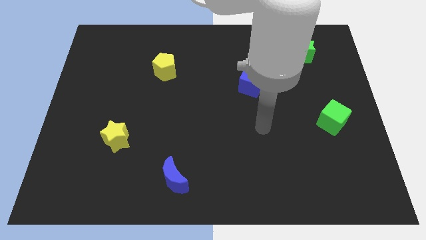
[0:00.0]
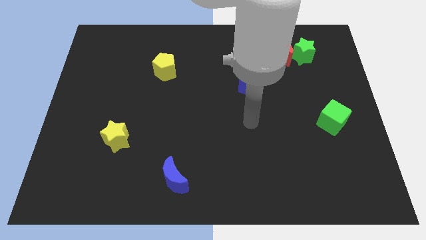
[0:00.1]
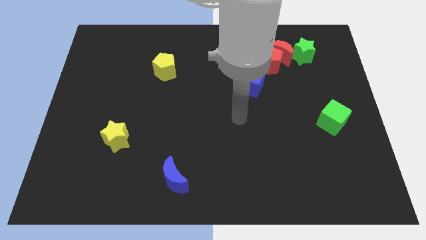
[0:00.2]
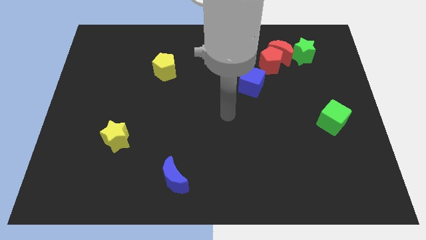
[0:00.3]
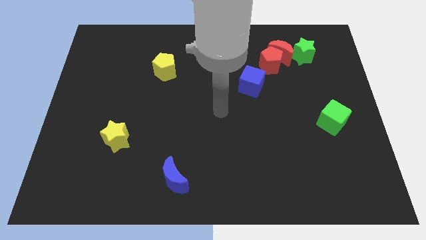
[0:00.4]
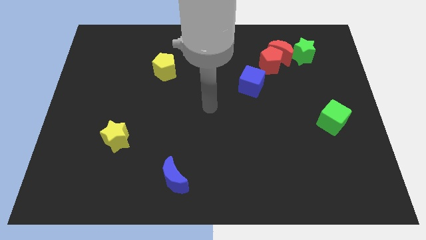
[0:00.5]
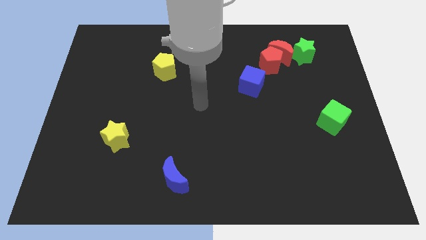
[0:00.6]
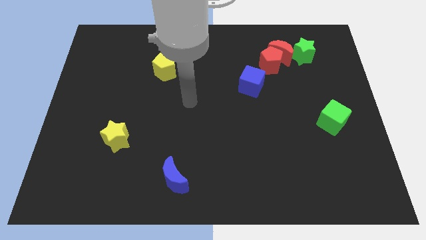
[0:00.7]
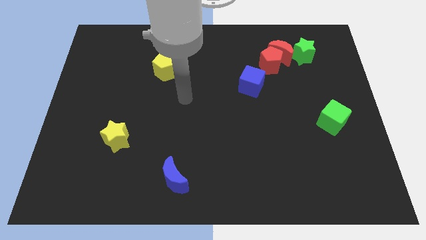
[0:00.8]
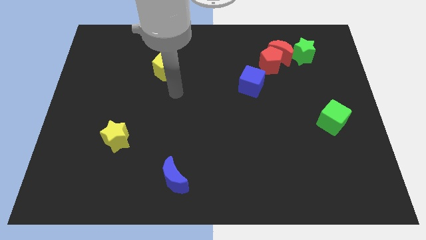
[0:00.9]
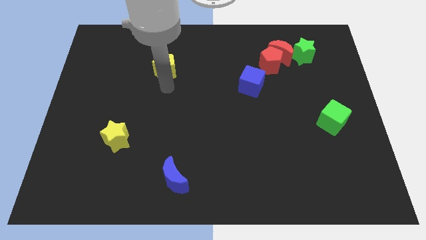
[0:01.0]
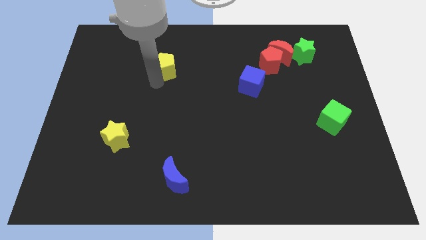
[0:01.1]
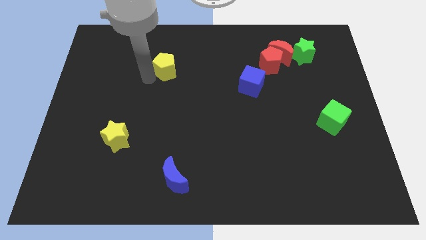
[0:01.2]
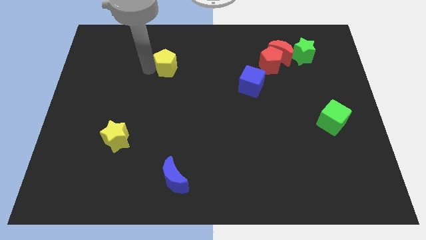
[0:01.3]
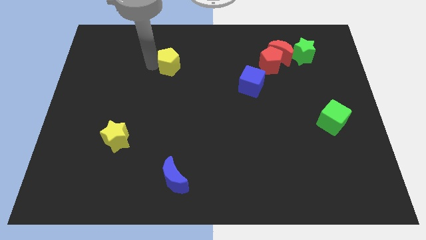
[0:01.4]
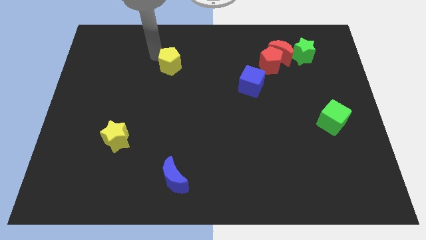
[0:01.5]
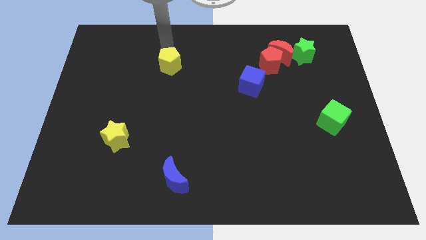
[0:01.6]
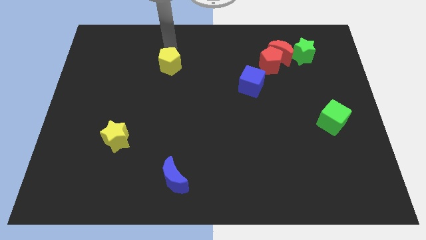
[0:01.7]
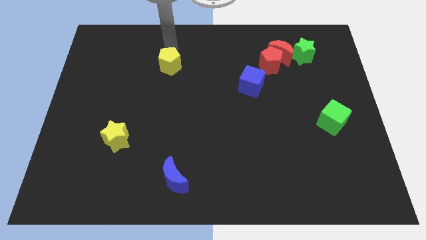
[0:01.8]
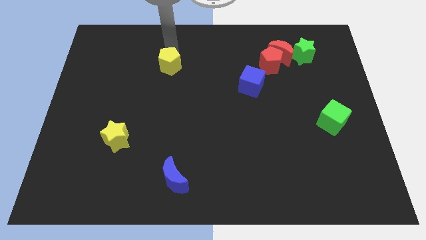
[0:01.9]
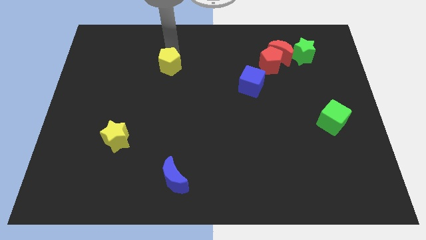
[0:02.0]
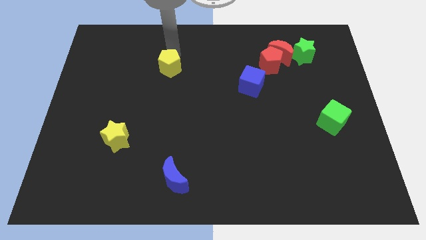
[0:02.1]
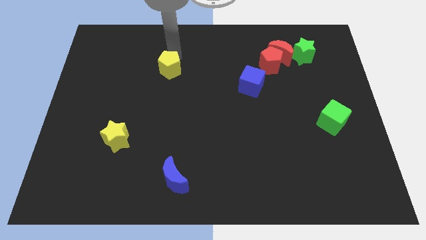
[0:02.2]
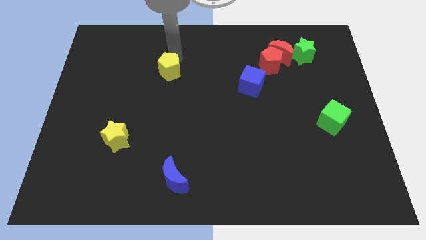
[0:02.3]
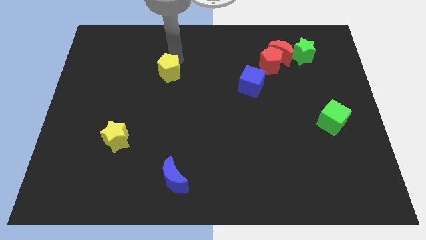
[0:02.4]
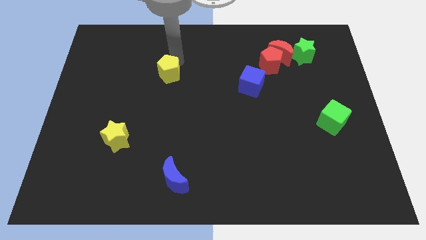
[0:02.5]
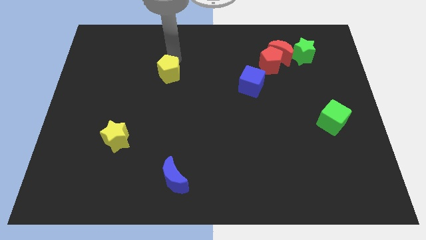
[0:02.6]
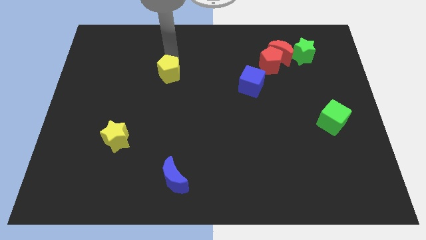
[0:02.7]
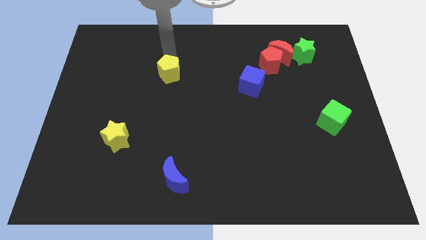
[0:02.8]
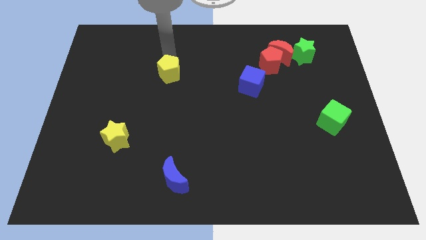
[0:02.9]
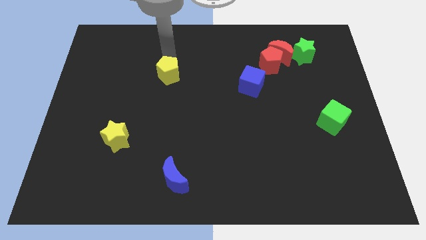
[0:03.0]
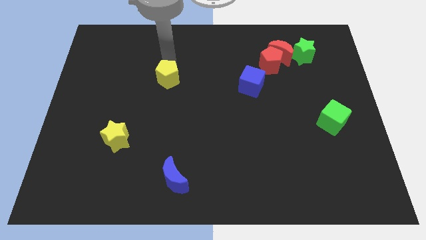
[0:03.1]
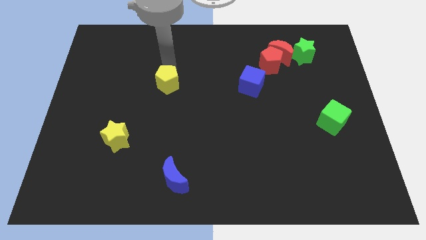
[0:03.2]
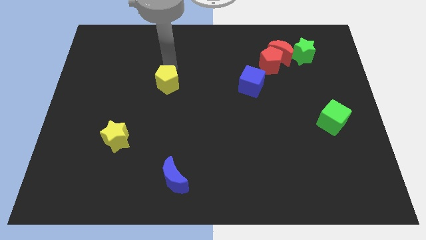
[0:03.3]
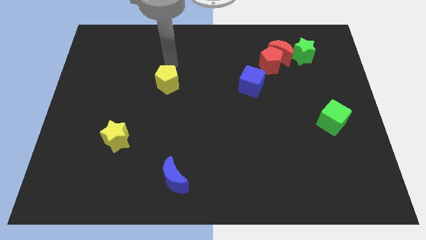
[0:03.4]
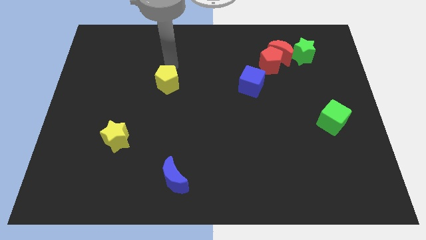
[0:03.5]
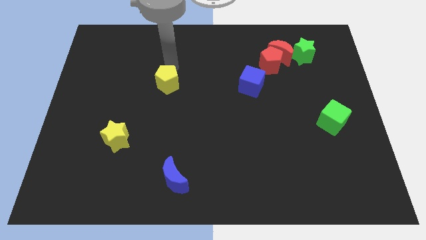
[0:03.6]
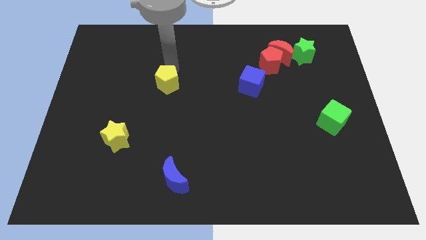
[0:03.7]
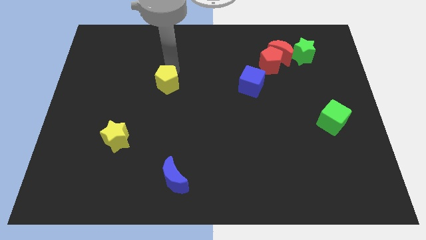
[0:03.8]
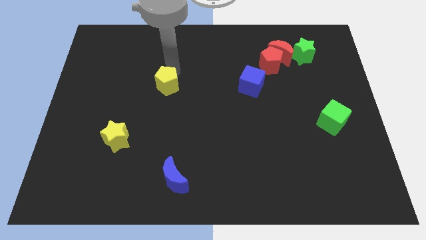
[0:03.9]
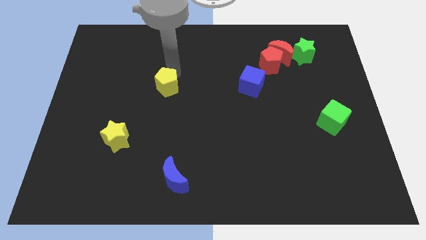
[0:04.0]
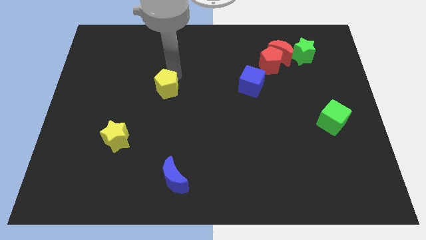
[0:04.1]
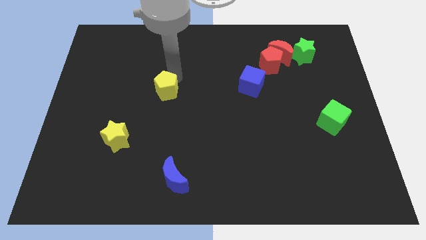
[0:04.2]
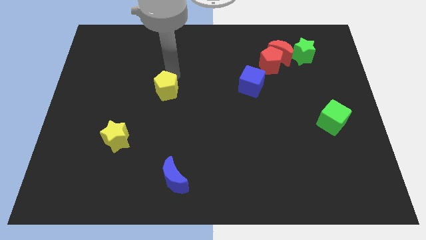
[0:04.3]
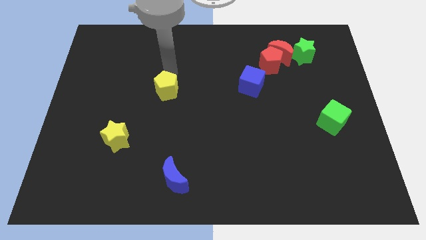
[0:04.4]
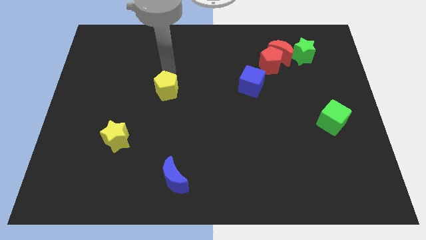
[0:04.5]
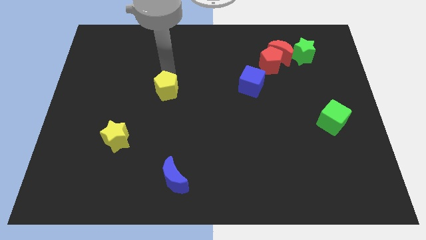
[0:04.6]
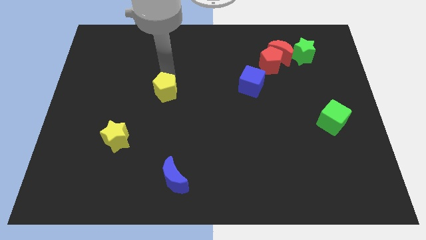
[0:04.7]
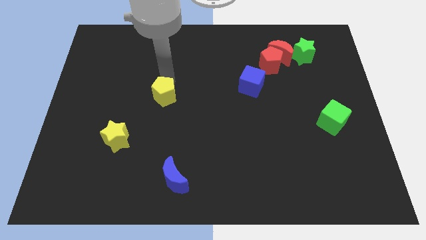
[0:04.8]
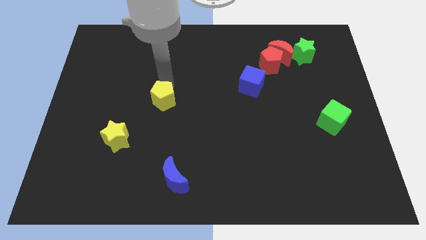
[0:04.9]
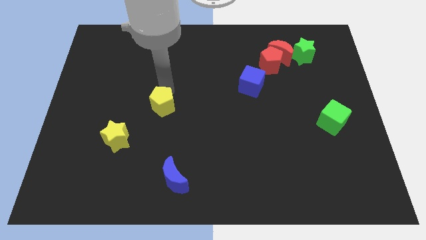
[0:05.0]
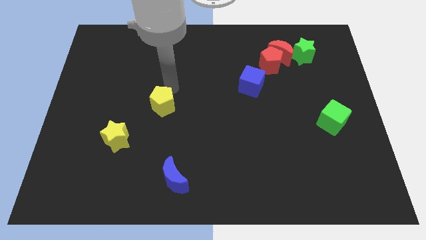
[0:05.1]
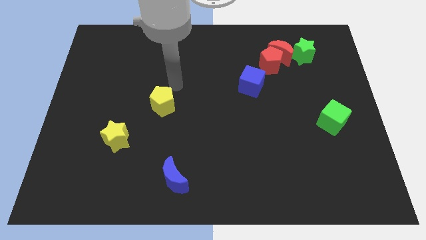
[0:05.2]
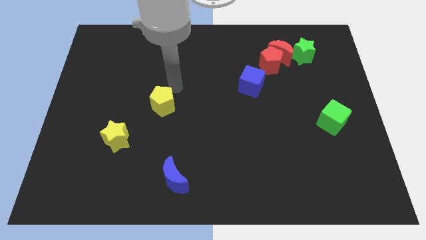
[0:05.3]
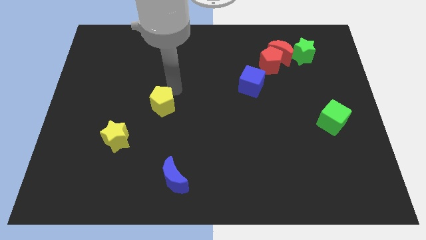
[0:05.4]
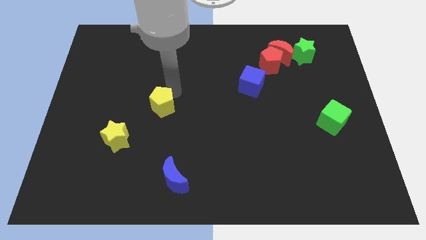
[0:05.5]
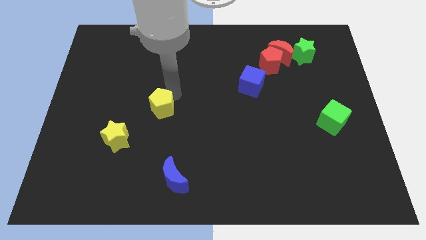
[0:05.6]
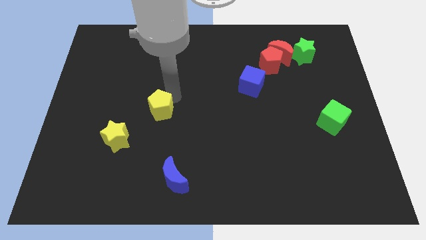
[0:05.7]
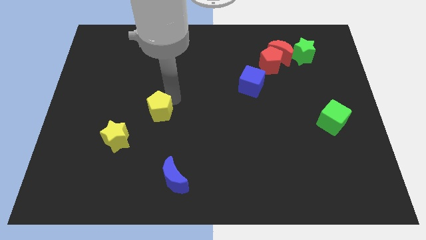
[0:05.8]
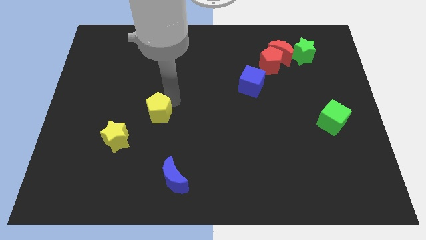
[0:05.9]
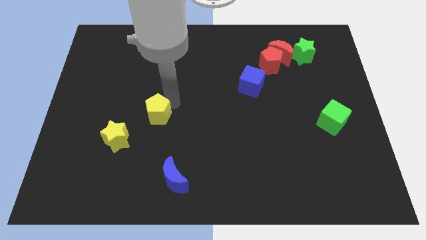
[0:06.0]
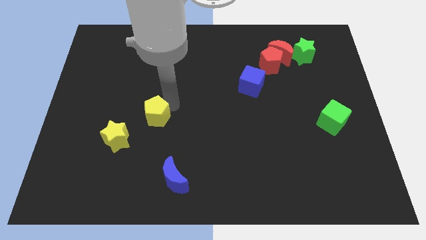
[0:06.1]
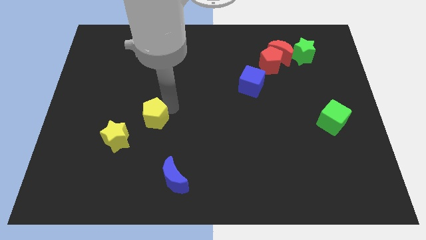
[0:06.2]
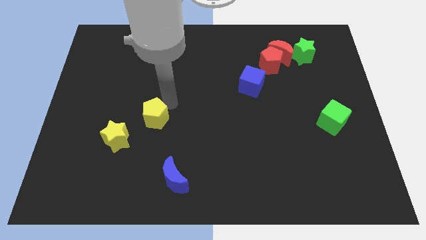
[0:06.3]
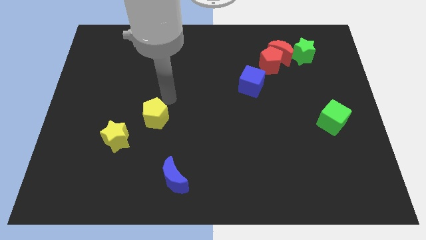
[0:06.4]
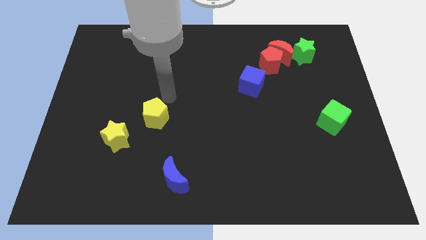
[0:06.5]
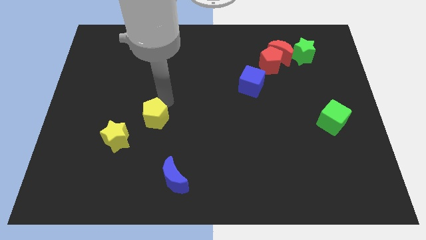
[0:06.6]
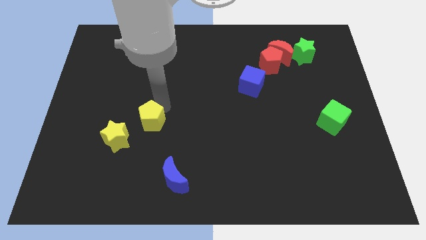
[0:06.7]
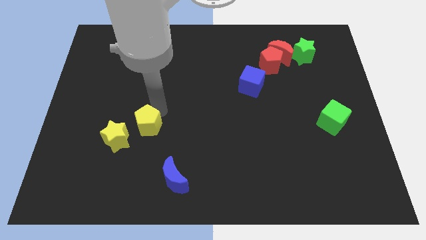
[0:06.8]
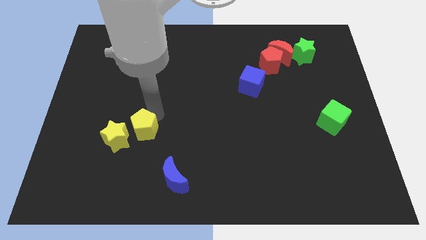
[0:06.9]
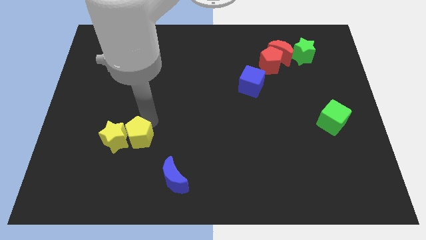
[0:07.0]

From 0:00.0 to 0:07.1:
slide the yellow pentagon diagonally down and to the right of the yellow star
